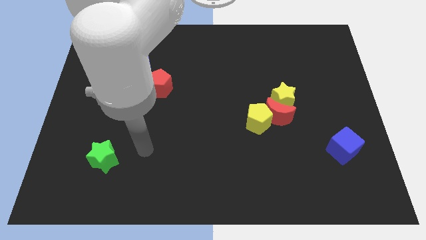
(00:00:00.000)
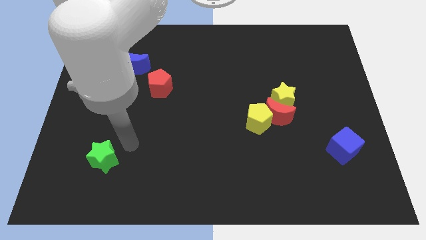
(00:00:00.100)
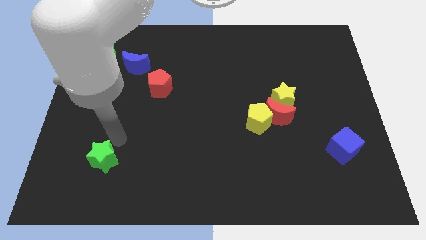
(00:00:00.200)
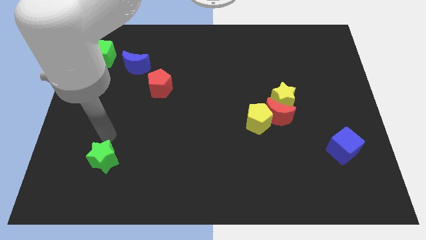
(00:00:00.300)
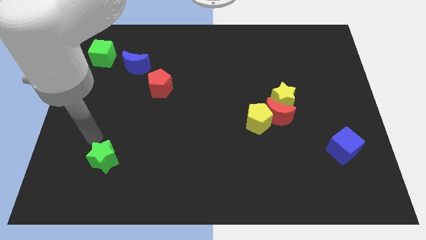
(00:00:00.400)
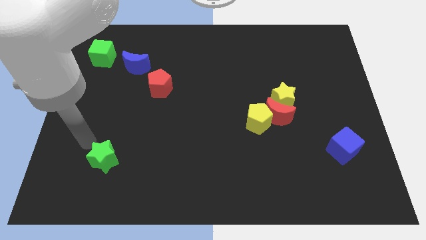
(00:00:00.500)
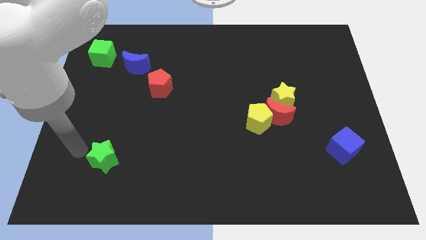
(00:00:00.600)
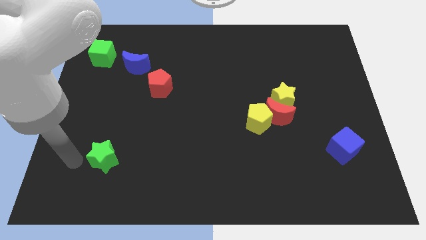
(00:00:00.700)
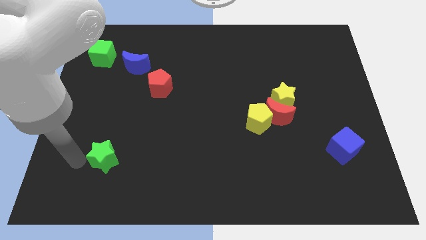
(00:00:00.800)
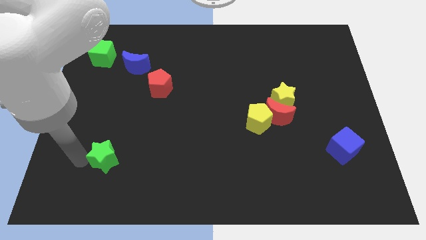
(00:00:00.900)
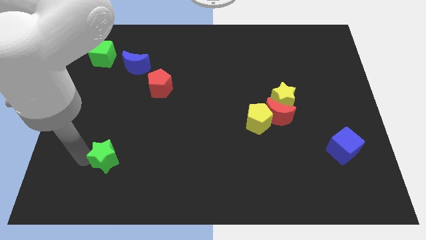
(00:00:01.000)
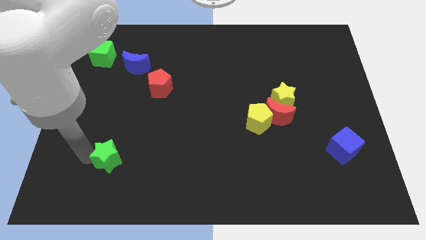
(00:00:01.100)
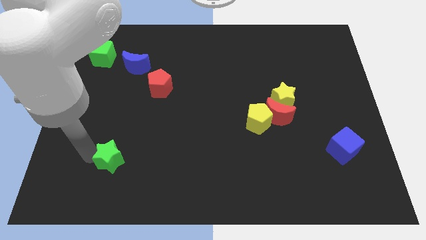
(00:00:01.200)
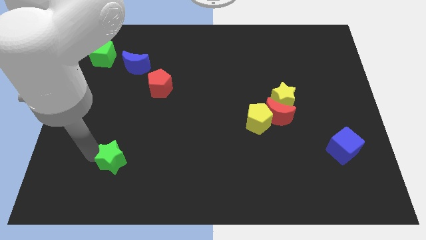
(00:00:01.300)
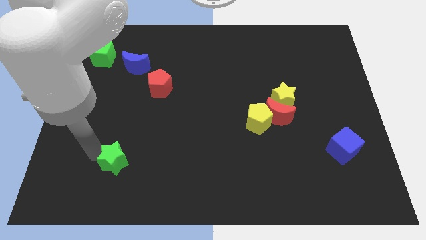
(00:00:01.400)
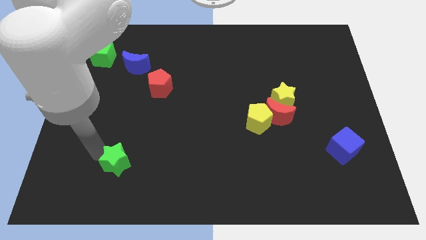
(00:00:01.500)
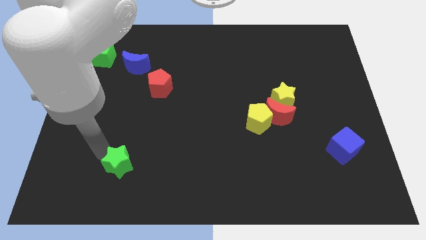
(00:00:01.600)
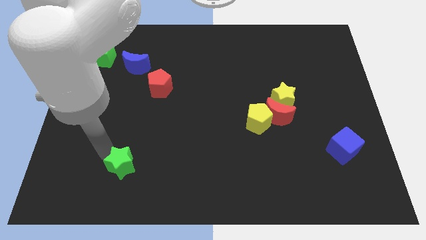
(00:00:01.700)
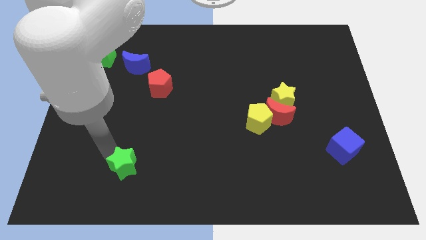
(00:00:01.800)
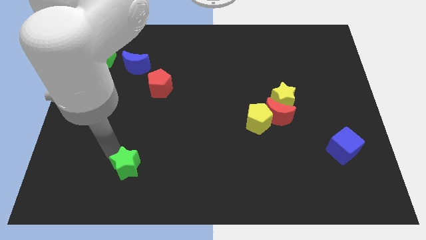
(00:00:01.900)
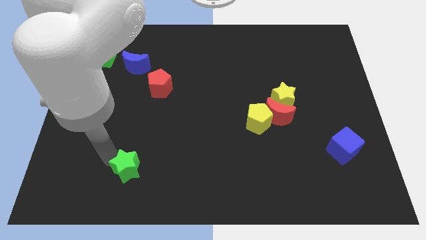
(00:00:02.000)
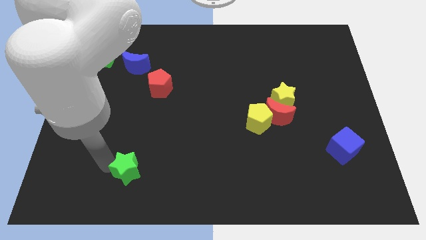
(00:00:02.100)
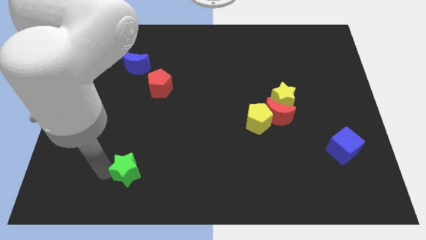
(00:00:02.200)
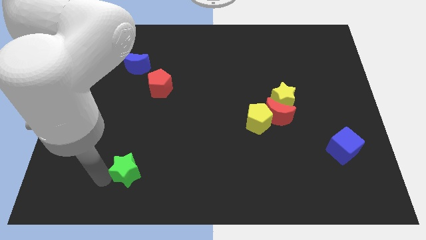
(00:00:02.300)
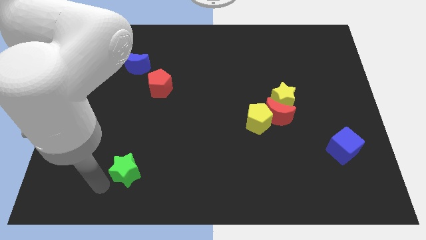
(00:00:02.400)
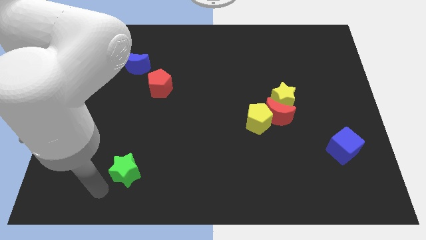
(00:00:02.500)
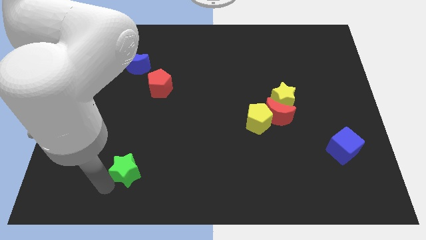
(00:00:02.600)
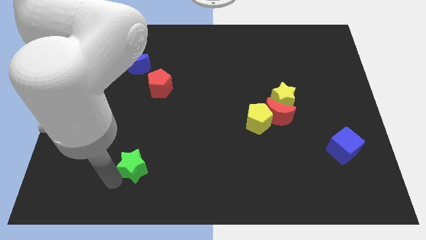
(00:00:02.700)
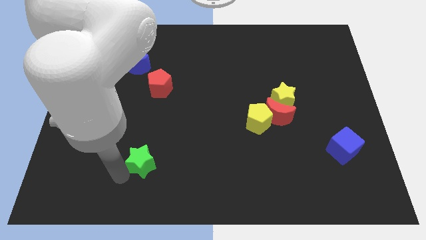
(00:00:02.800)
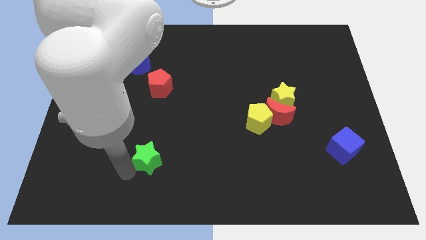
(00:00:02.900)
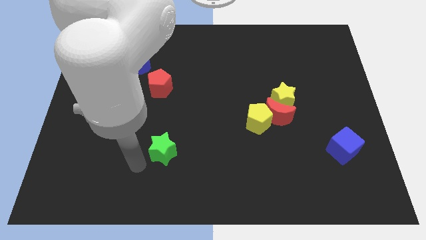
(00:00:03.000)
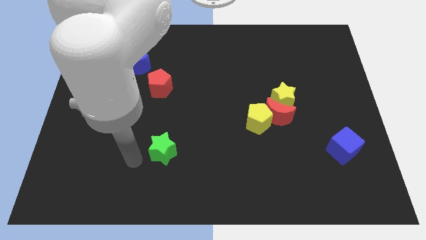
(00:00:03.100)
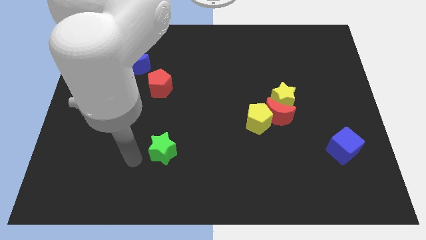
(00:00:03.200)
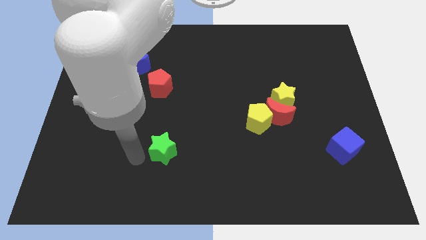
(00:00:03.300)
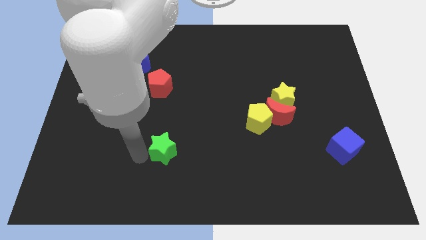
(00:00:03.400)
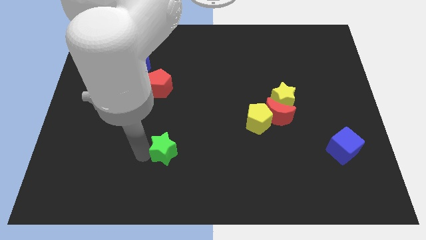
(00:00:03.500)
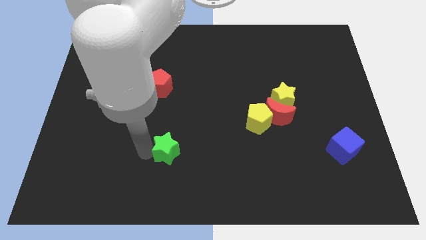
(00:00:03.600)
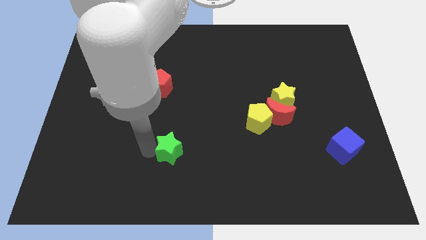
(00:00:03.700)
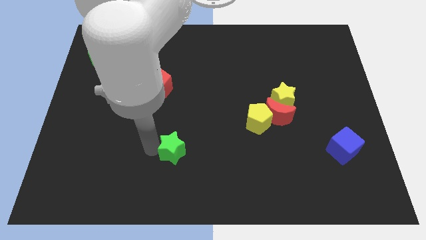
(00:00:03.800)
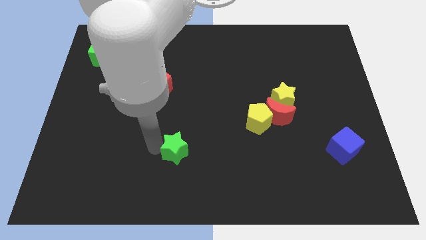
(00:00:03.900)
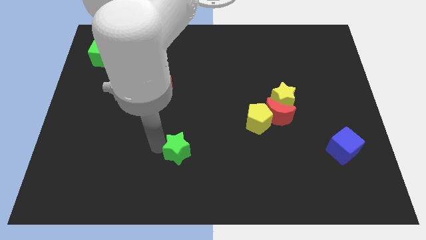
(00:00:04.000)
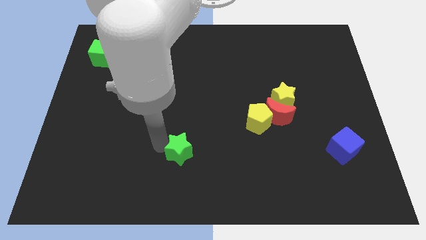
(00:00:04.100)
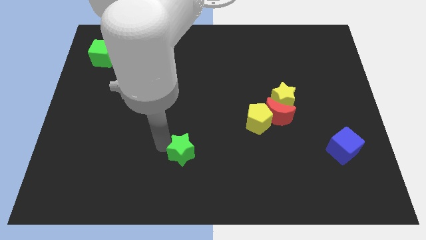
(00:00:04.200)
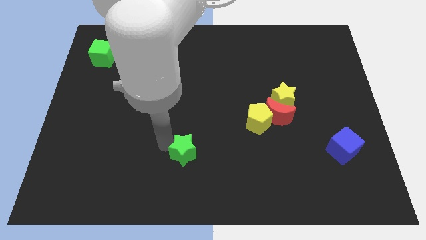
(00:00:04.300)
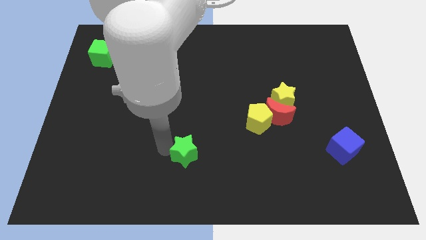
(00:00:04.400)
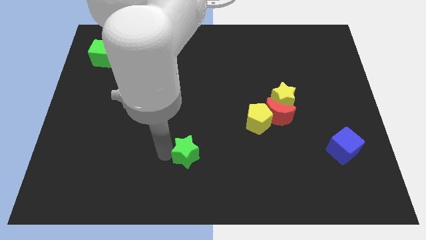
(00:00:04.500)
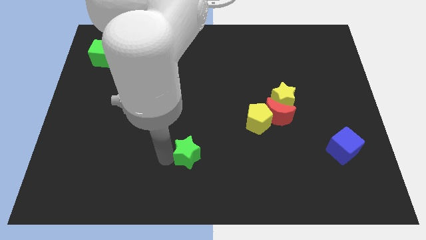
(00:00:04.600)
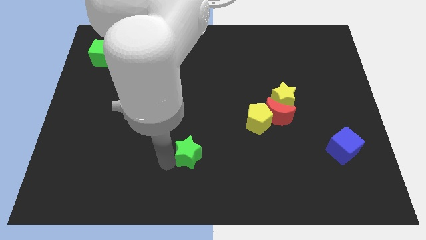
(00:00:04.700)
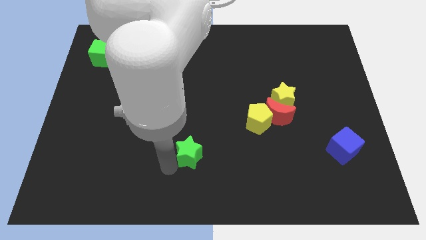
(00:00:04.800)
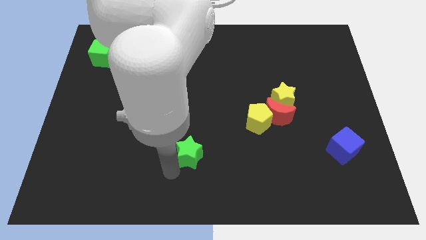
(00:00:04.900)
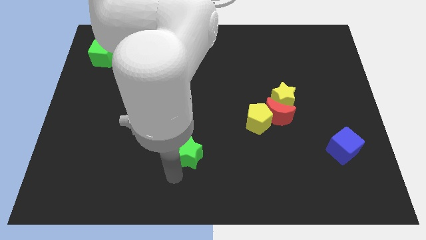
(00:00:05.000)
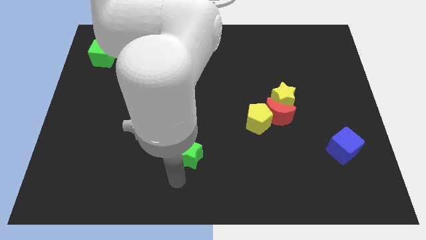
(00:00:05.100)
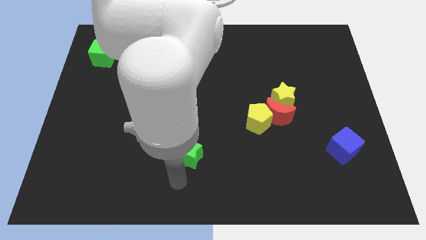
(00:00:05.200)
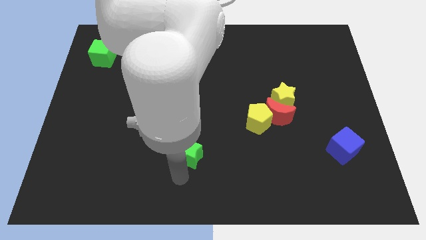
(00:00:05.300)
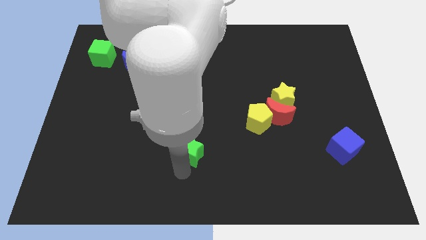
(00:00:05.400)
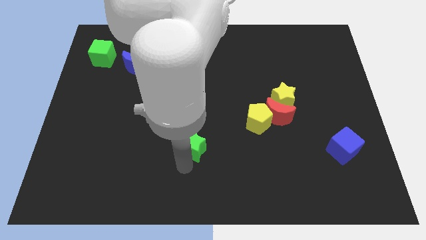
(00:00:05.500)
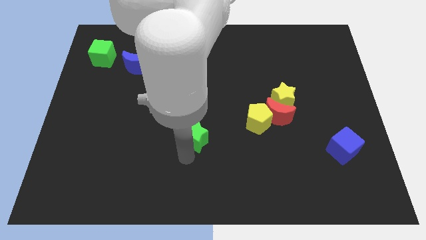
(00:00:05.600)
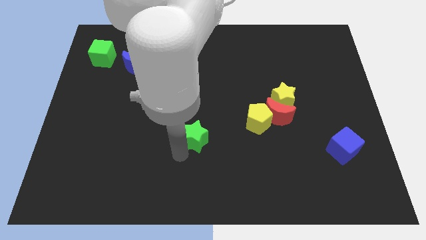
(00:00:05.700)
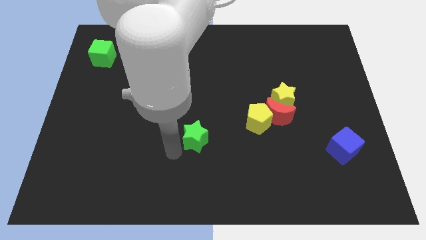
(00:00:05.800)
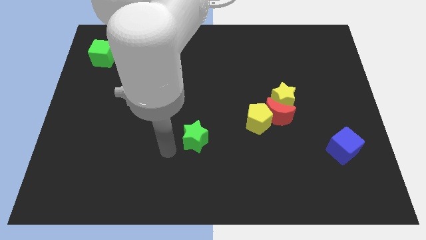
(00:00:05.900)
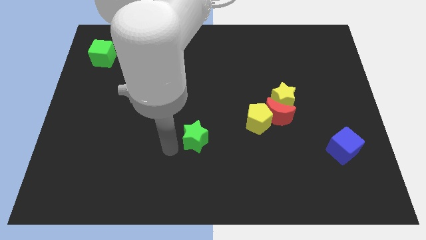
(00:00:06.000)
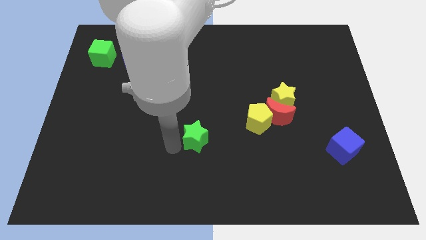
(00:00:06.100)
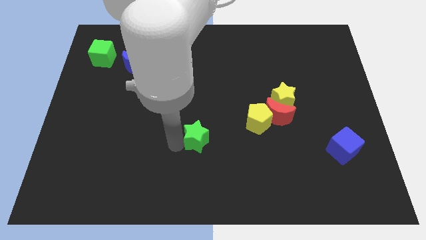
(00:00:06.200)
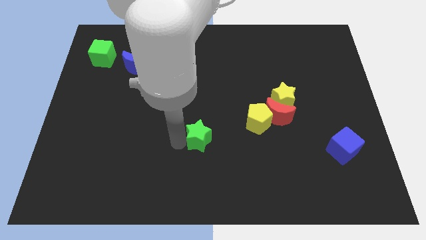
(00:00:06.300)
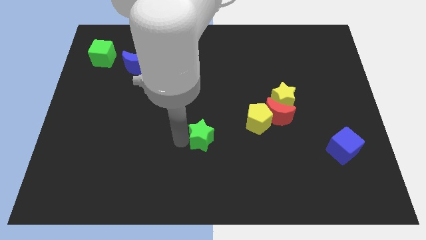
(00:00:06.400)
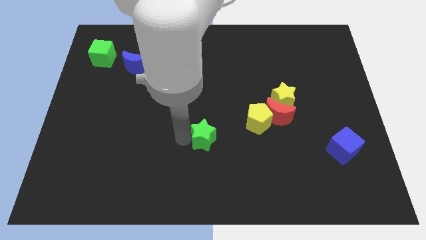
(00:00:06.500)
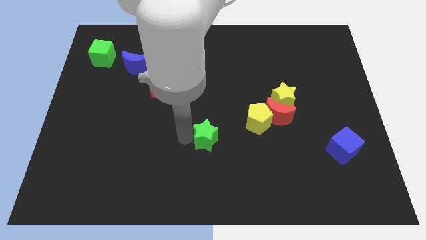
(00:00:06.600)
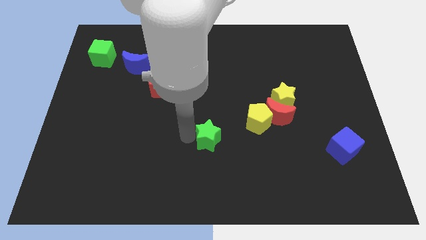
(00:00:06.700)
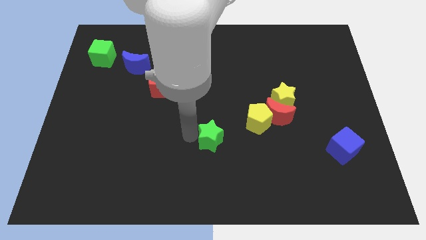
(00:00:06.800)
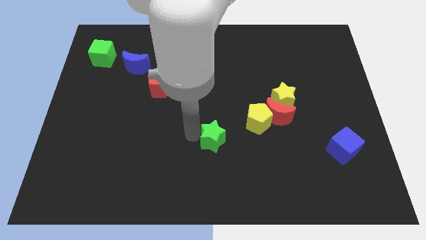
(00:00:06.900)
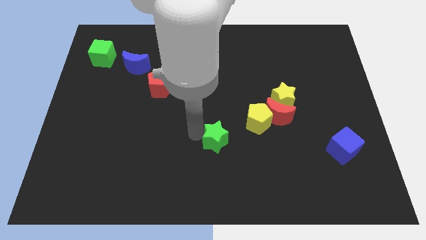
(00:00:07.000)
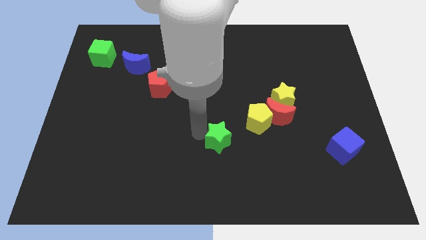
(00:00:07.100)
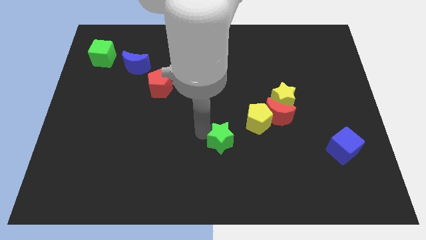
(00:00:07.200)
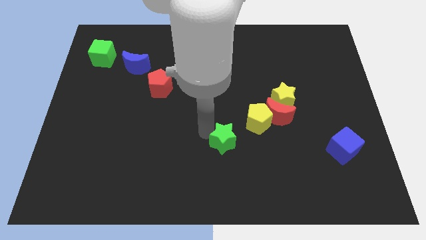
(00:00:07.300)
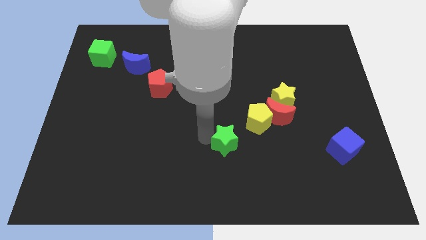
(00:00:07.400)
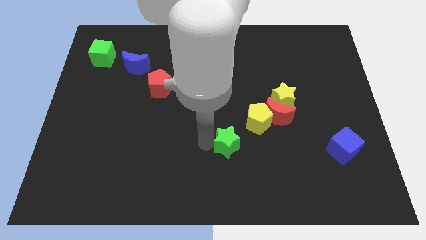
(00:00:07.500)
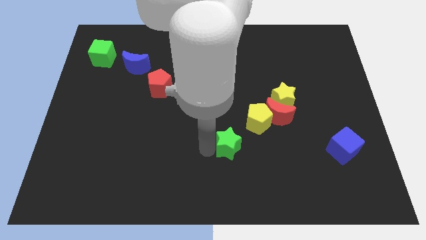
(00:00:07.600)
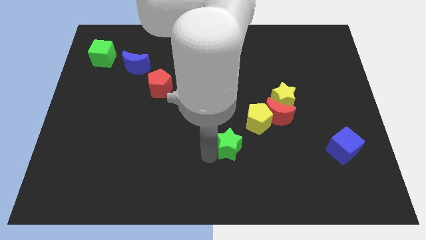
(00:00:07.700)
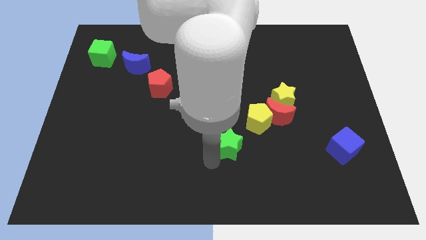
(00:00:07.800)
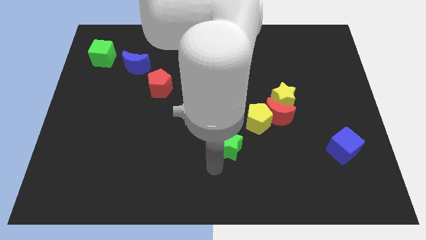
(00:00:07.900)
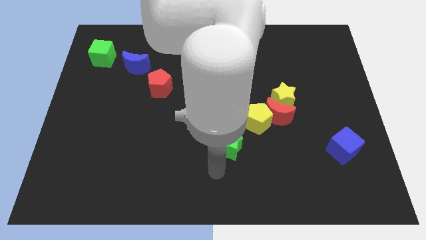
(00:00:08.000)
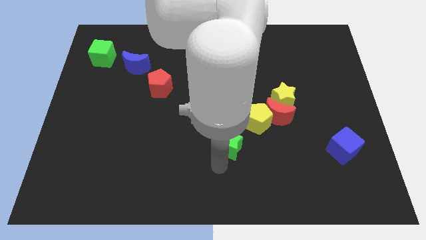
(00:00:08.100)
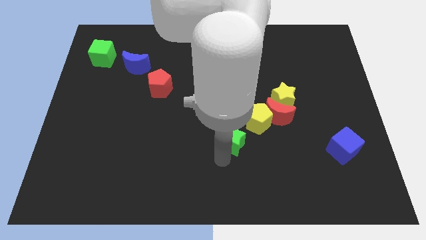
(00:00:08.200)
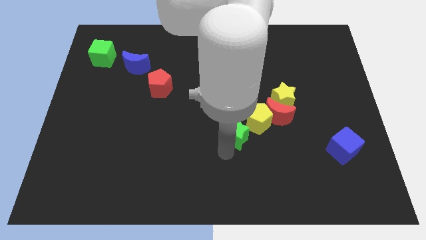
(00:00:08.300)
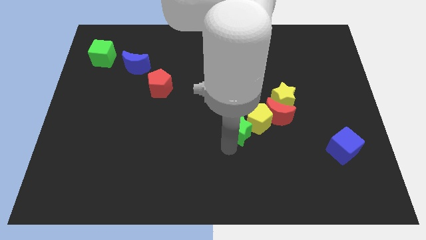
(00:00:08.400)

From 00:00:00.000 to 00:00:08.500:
move the green star close to the yellow pentagon
